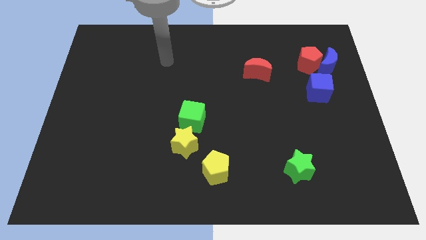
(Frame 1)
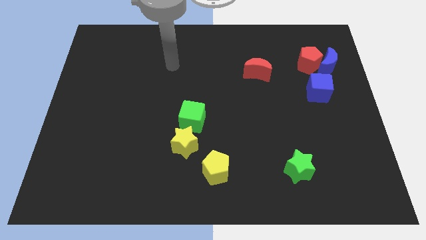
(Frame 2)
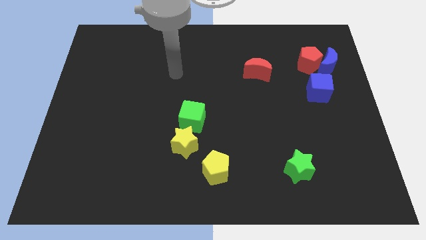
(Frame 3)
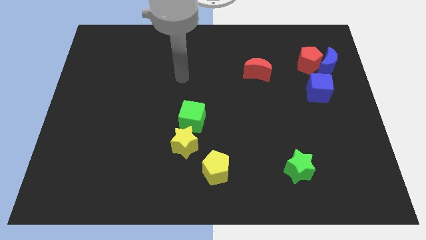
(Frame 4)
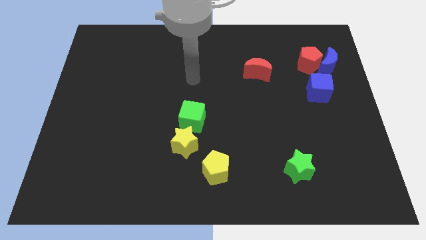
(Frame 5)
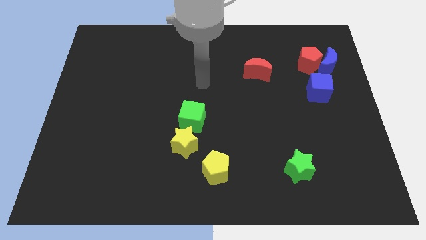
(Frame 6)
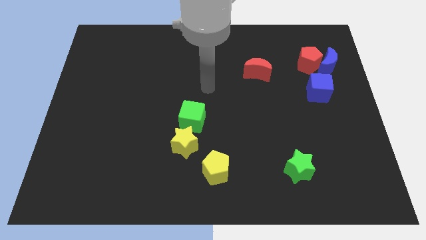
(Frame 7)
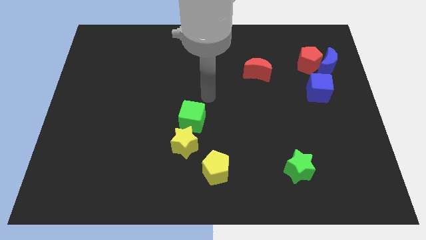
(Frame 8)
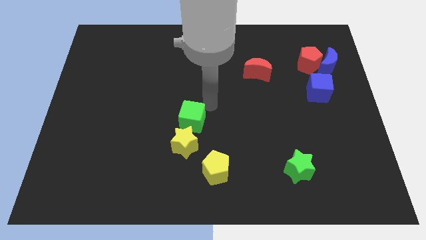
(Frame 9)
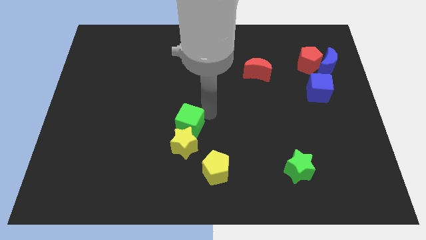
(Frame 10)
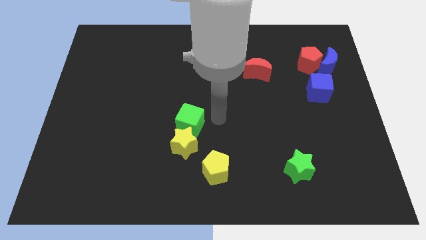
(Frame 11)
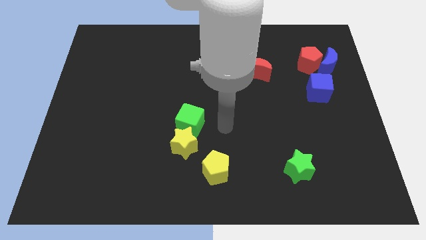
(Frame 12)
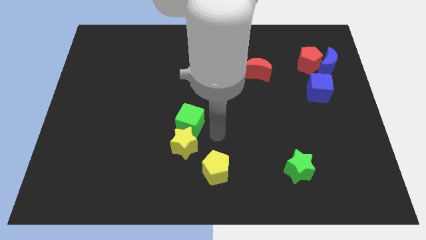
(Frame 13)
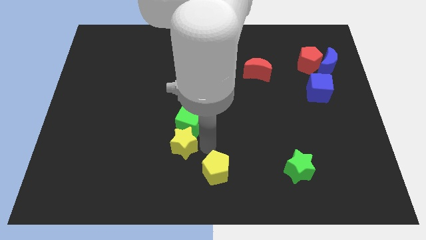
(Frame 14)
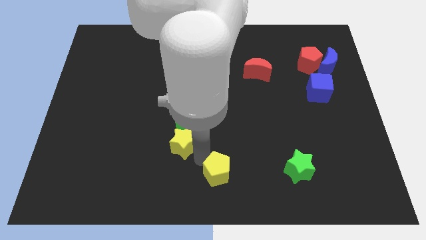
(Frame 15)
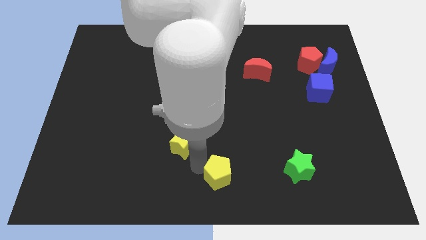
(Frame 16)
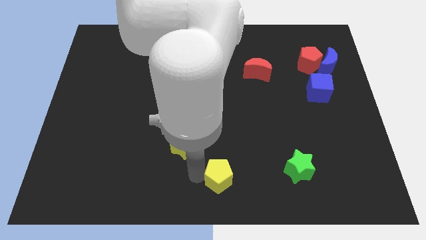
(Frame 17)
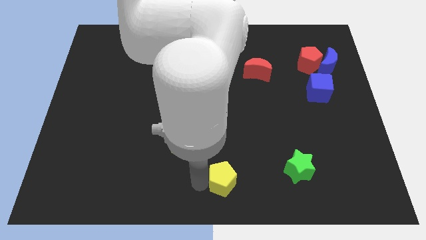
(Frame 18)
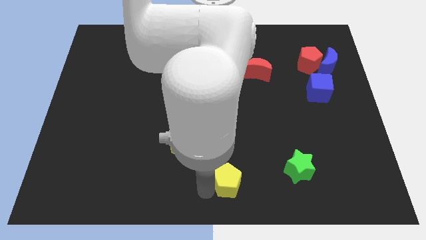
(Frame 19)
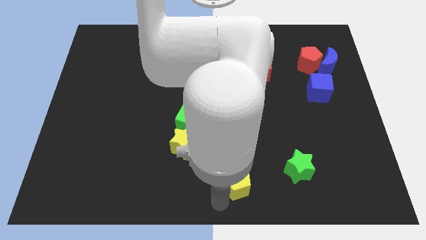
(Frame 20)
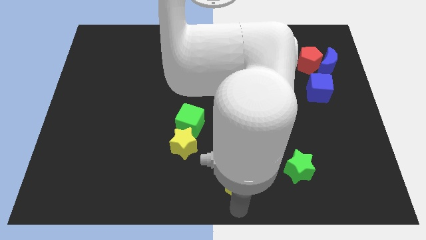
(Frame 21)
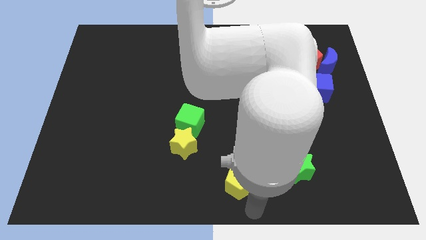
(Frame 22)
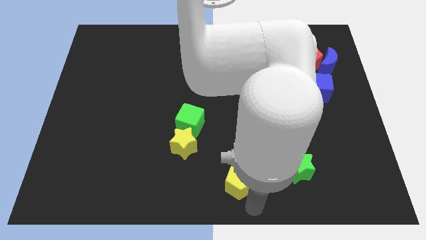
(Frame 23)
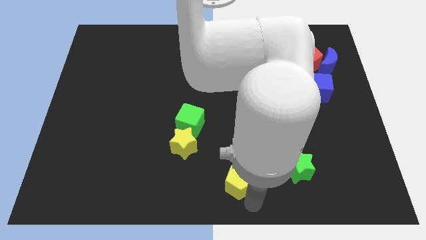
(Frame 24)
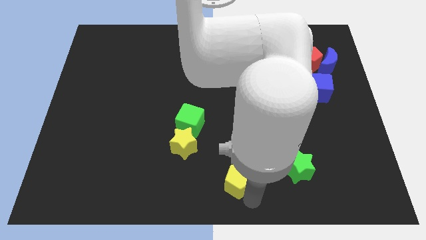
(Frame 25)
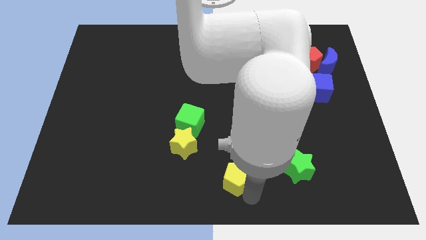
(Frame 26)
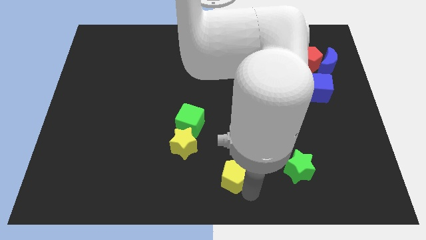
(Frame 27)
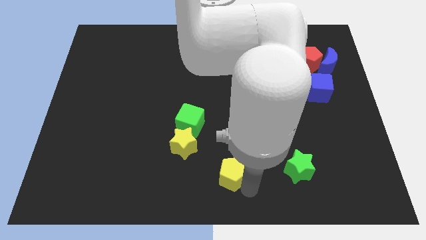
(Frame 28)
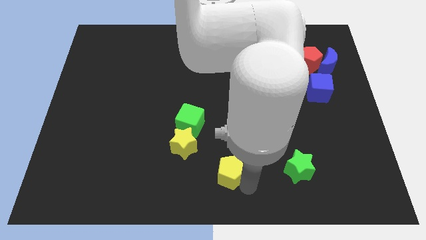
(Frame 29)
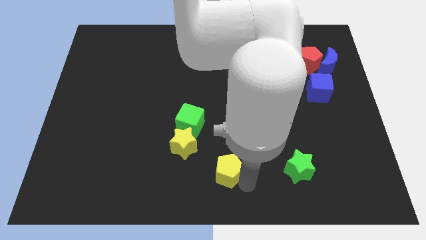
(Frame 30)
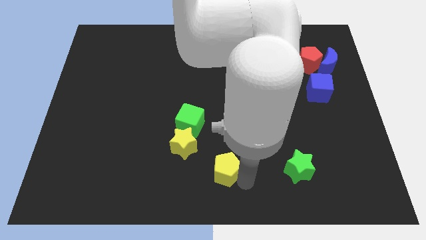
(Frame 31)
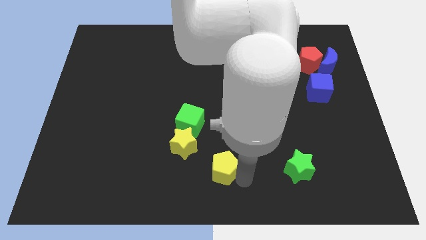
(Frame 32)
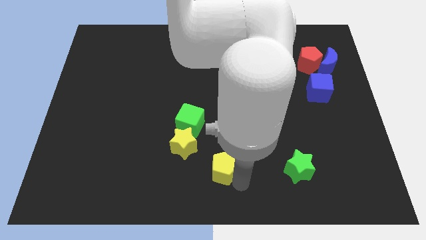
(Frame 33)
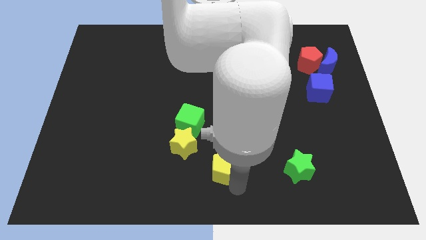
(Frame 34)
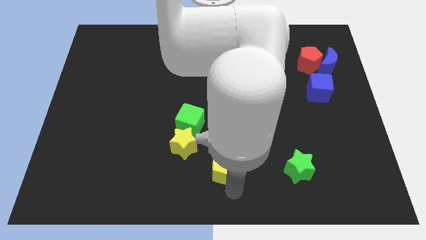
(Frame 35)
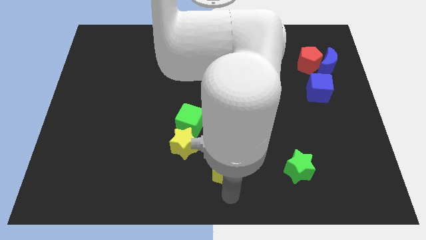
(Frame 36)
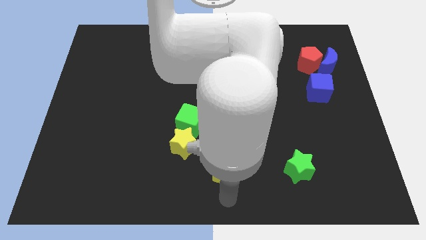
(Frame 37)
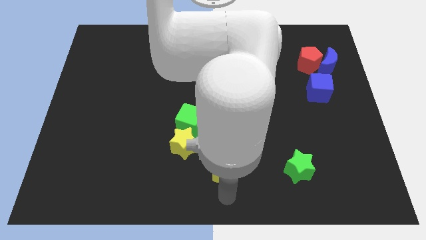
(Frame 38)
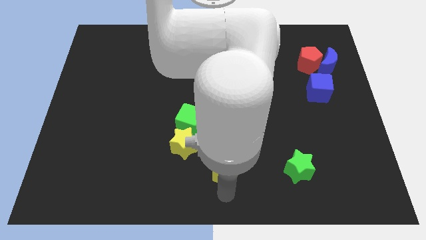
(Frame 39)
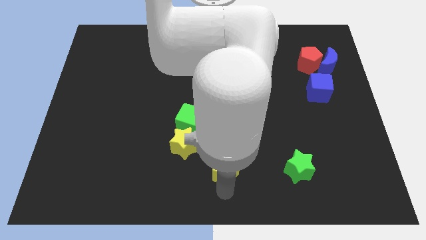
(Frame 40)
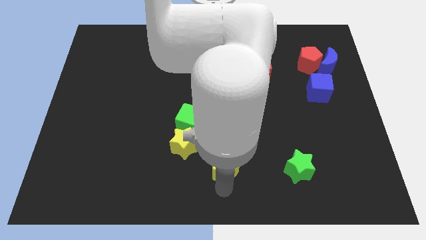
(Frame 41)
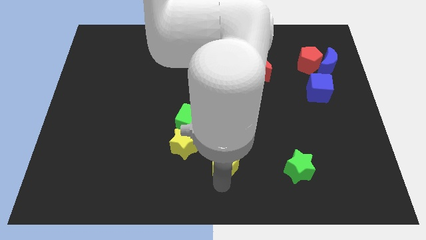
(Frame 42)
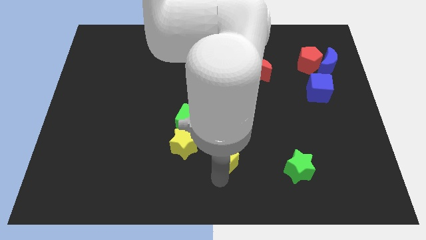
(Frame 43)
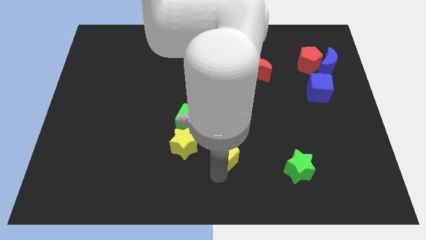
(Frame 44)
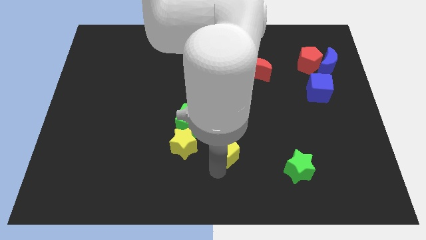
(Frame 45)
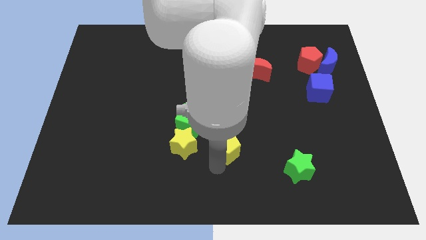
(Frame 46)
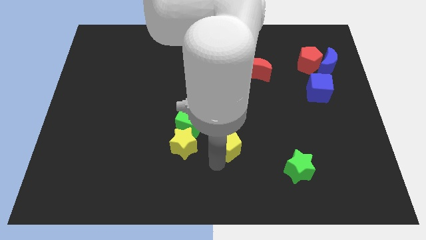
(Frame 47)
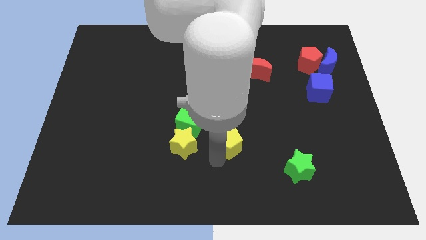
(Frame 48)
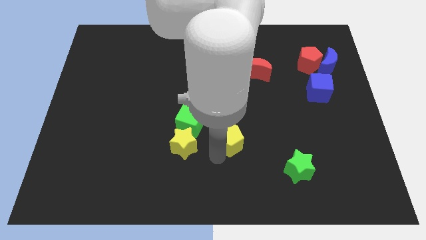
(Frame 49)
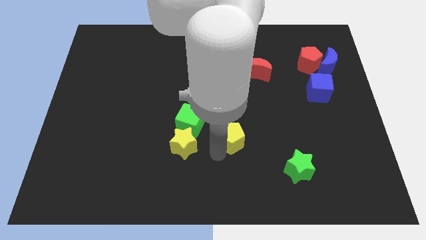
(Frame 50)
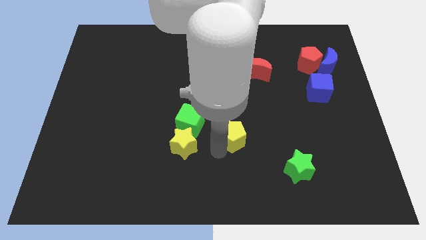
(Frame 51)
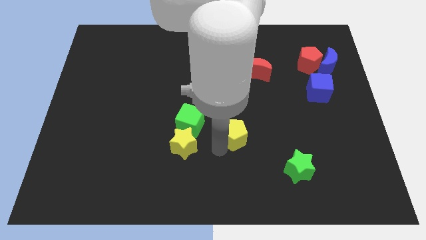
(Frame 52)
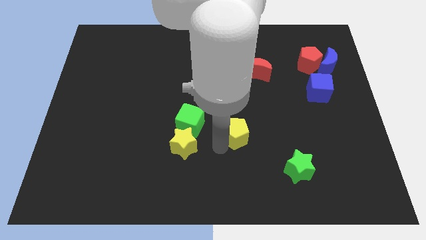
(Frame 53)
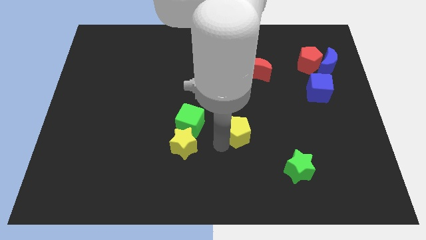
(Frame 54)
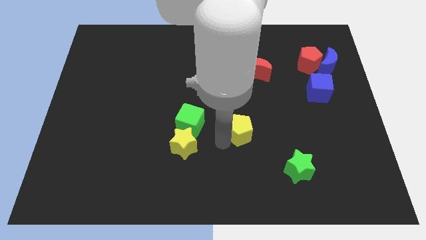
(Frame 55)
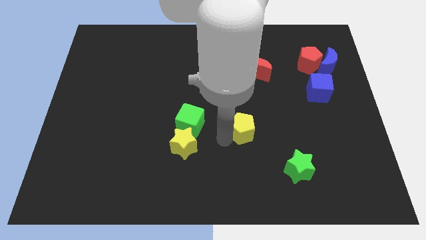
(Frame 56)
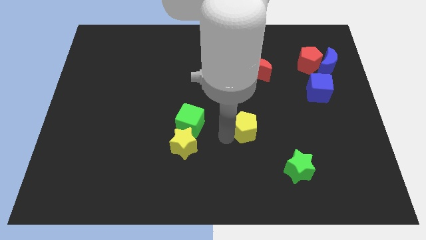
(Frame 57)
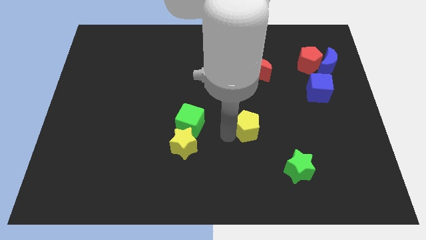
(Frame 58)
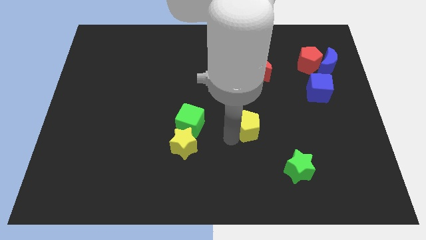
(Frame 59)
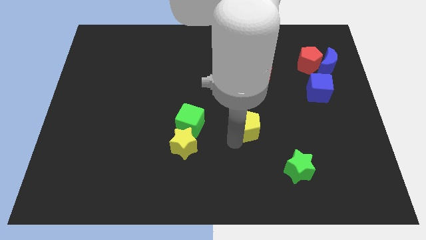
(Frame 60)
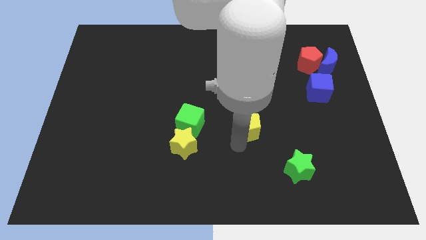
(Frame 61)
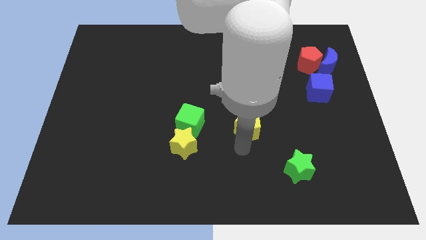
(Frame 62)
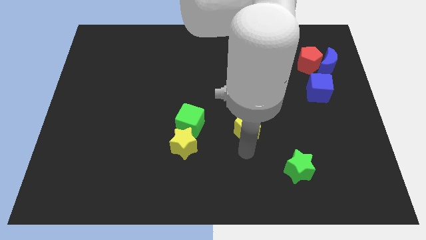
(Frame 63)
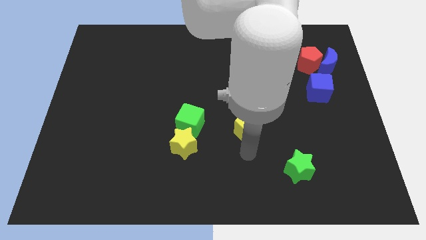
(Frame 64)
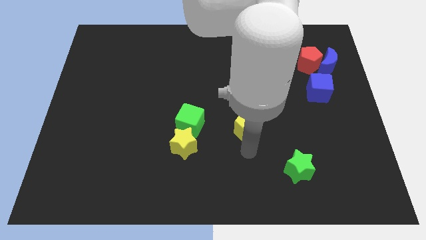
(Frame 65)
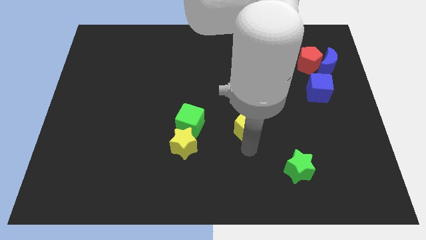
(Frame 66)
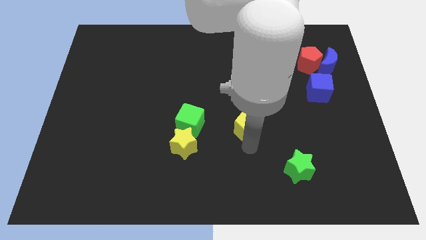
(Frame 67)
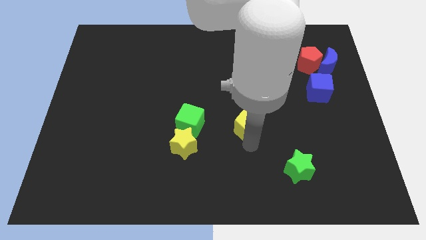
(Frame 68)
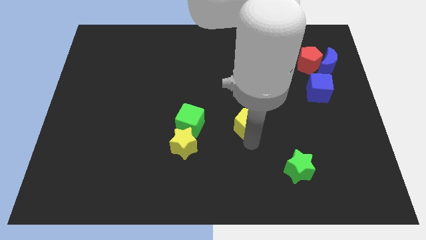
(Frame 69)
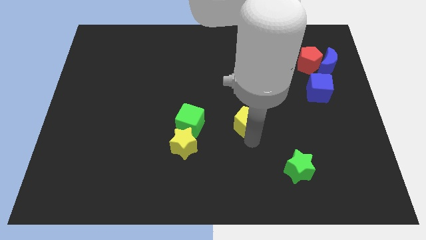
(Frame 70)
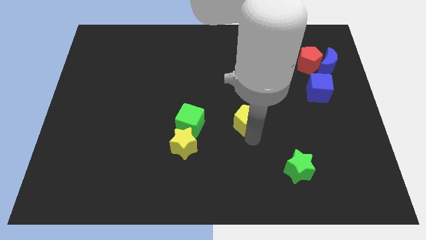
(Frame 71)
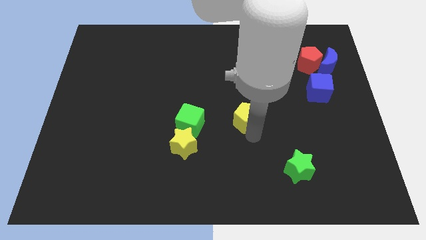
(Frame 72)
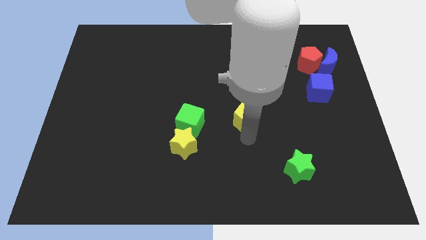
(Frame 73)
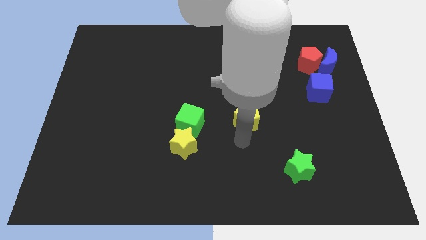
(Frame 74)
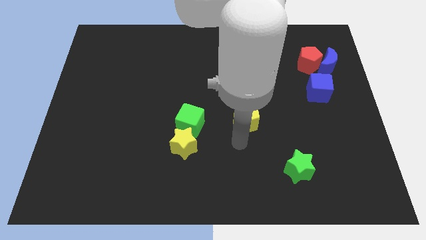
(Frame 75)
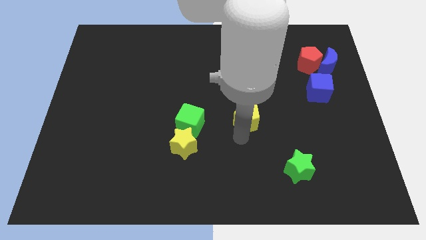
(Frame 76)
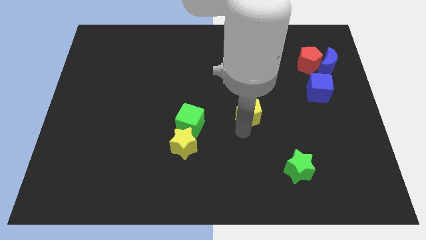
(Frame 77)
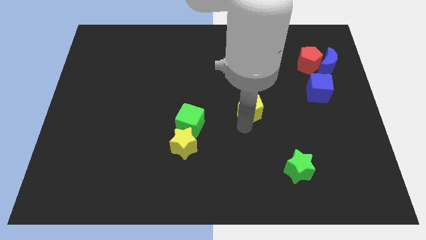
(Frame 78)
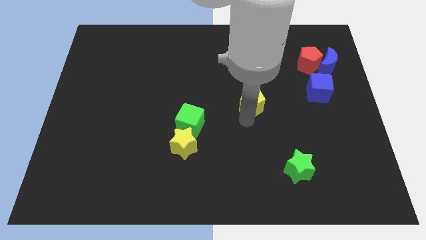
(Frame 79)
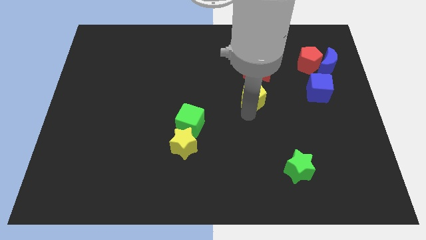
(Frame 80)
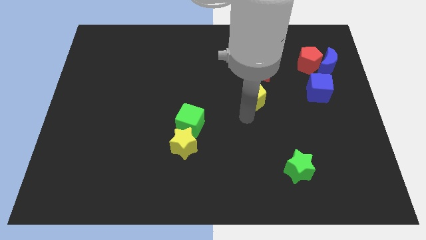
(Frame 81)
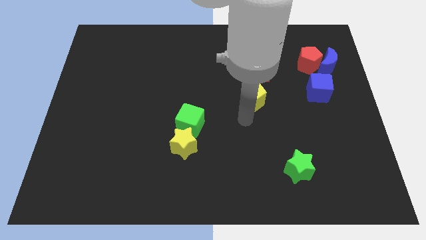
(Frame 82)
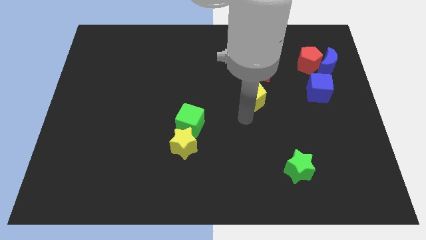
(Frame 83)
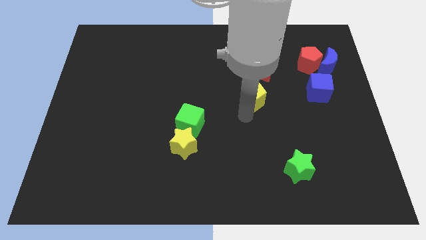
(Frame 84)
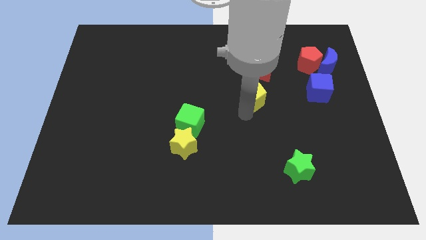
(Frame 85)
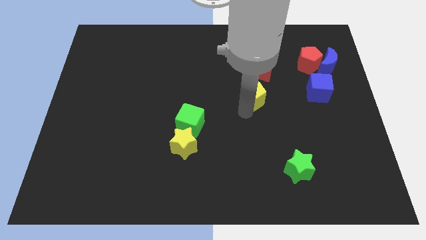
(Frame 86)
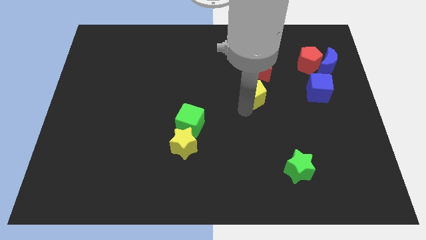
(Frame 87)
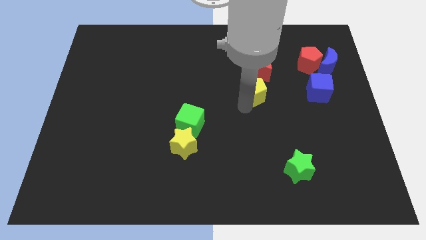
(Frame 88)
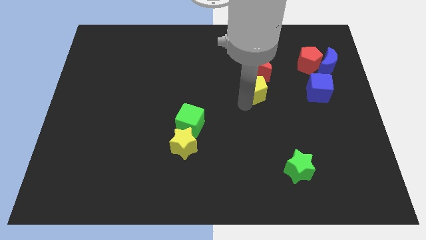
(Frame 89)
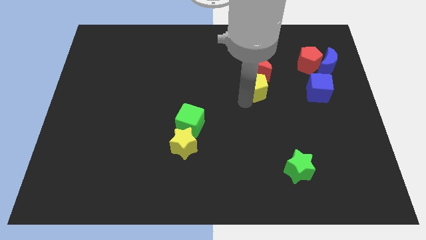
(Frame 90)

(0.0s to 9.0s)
move the yellow pentagon close to the red moon
